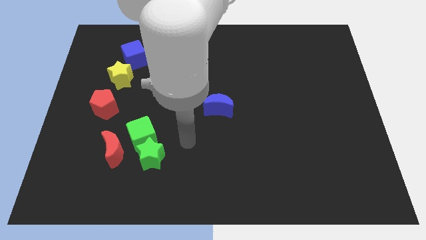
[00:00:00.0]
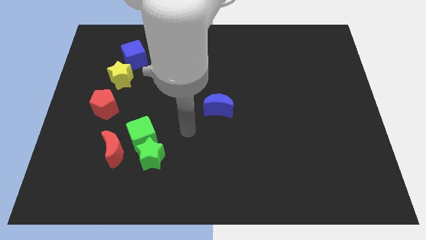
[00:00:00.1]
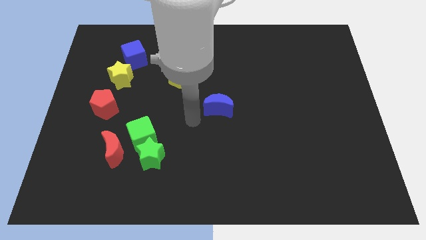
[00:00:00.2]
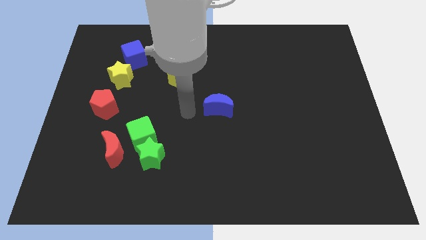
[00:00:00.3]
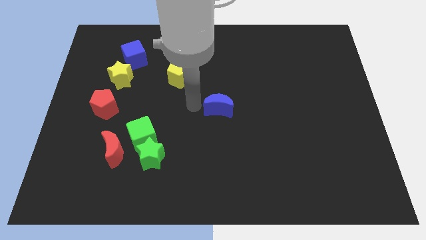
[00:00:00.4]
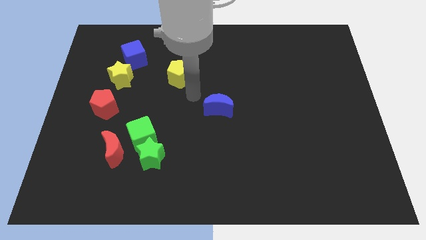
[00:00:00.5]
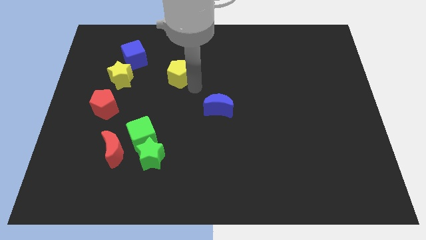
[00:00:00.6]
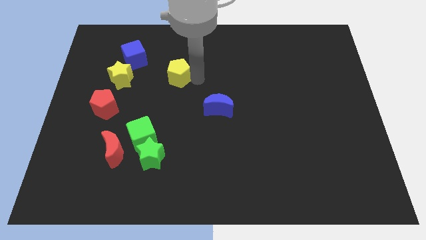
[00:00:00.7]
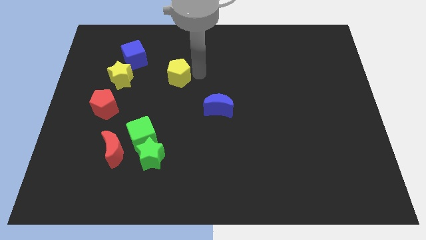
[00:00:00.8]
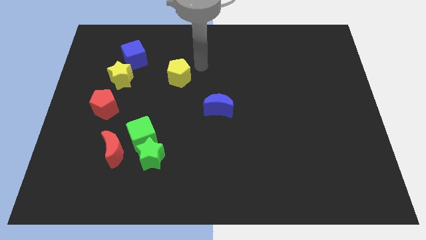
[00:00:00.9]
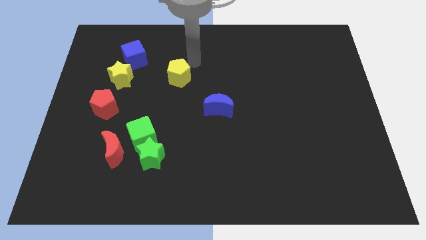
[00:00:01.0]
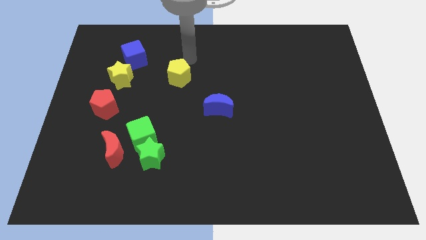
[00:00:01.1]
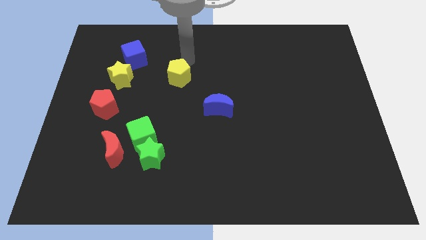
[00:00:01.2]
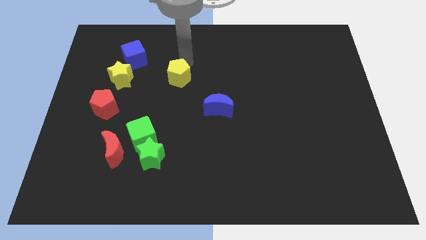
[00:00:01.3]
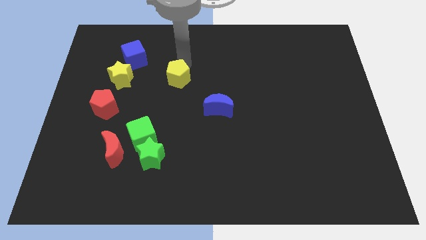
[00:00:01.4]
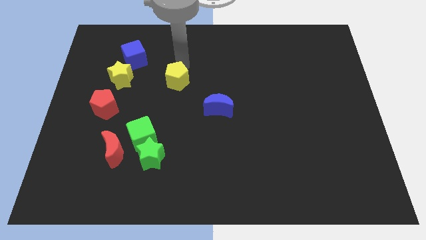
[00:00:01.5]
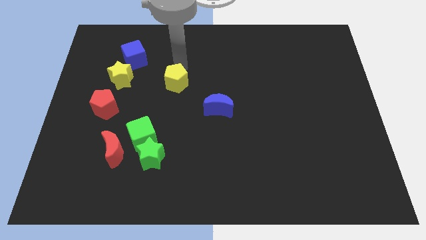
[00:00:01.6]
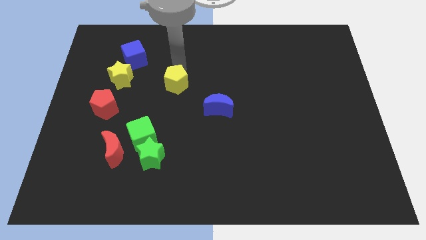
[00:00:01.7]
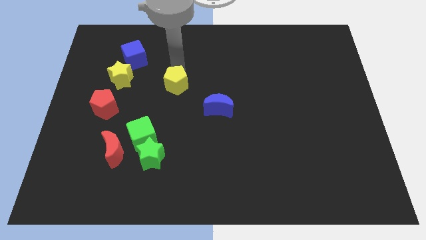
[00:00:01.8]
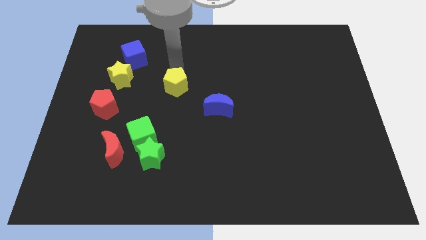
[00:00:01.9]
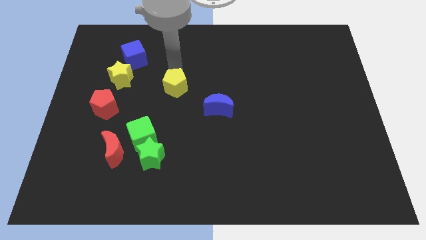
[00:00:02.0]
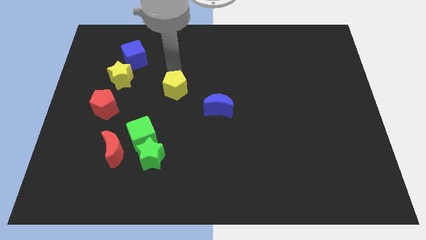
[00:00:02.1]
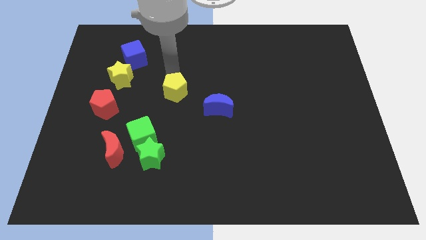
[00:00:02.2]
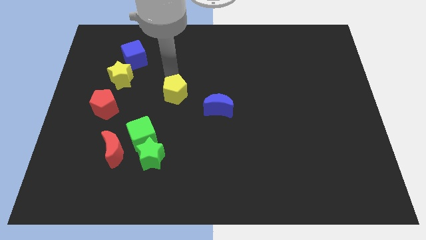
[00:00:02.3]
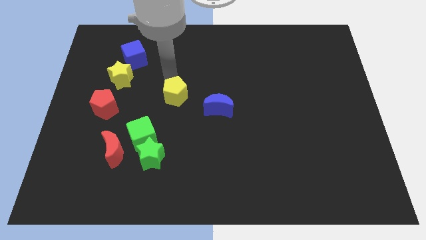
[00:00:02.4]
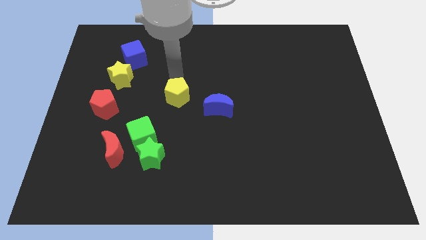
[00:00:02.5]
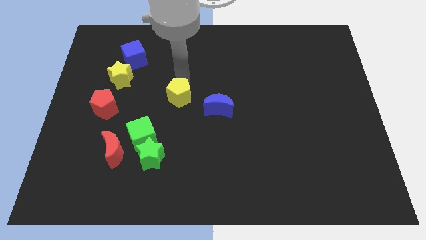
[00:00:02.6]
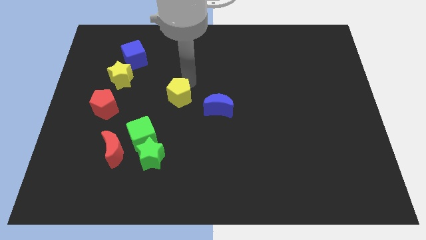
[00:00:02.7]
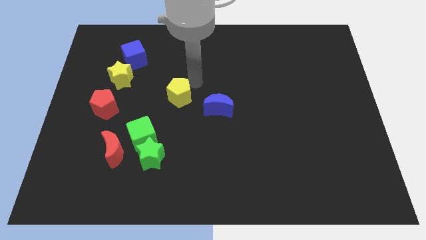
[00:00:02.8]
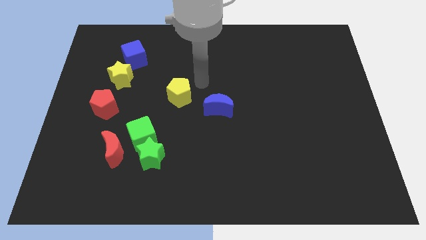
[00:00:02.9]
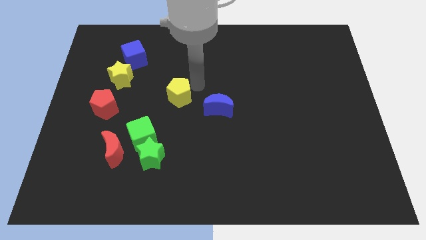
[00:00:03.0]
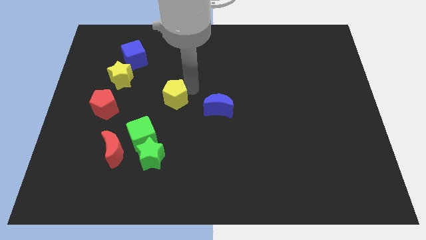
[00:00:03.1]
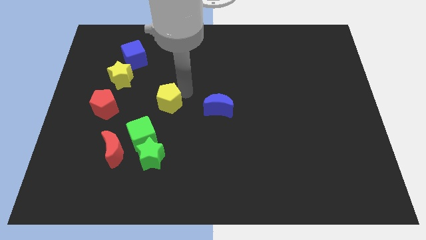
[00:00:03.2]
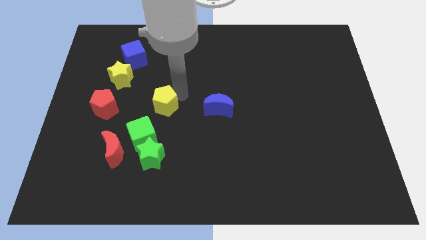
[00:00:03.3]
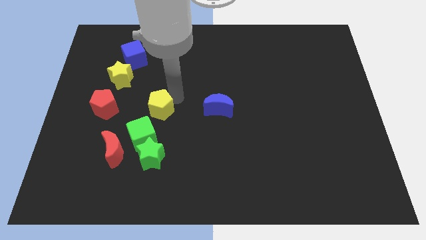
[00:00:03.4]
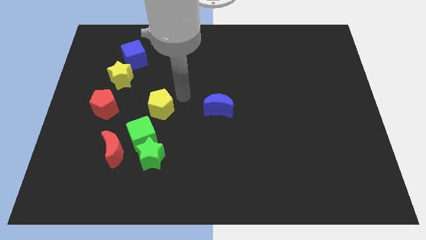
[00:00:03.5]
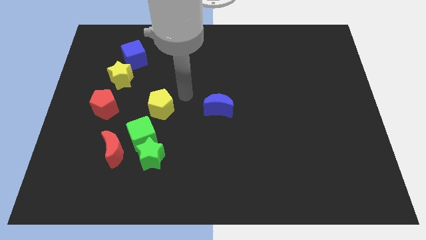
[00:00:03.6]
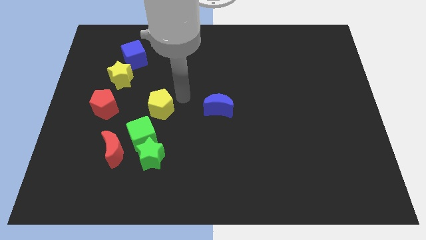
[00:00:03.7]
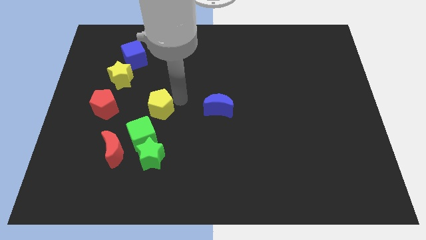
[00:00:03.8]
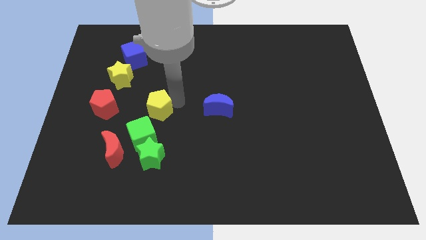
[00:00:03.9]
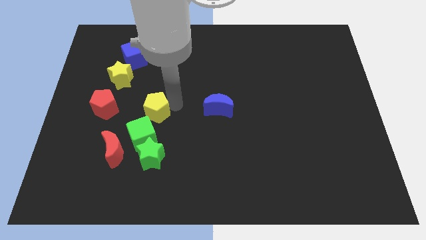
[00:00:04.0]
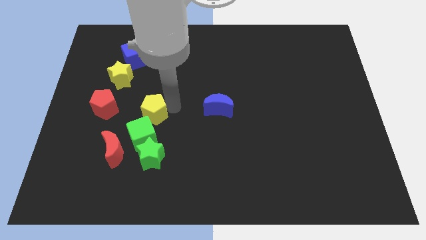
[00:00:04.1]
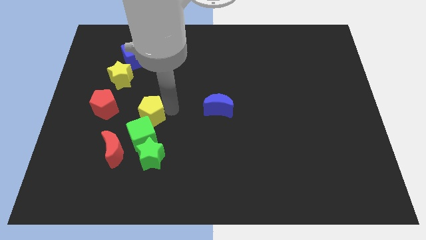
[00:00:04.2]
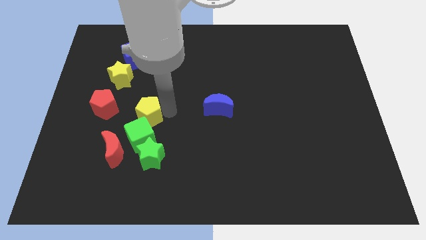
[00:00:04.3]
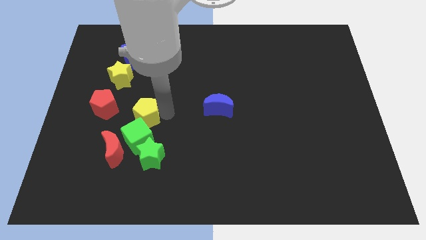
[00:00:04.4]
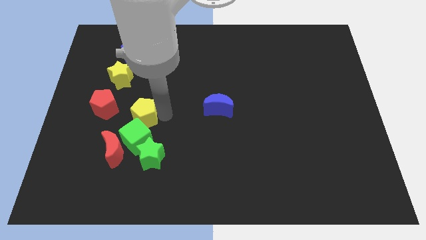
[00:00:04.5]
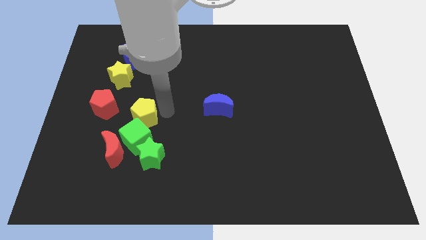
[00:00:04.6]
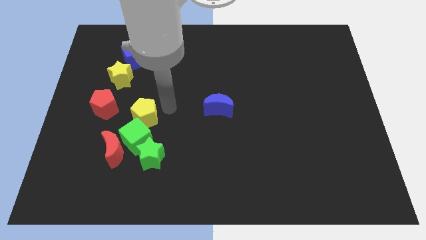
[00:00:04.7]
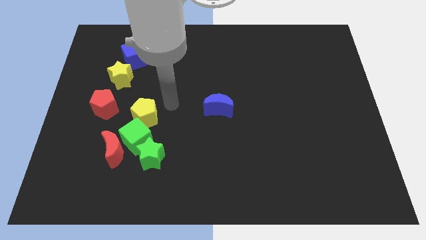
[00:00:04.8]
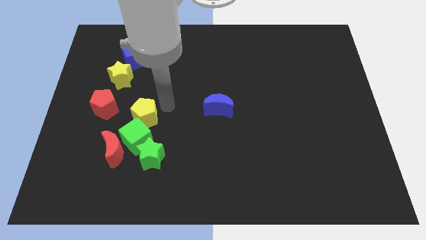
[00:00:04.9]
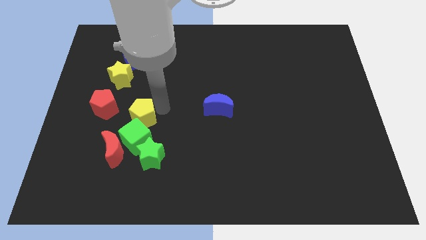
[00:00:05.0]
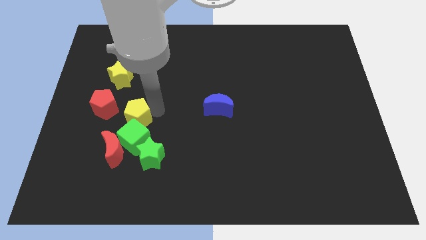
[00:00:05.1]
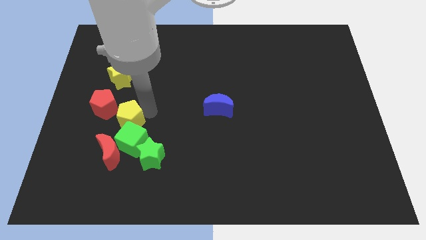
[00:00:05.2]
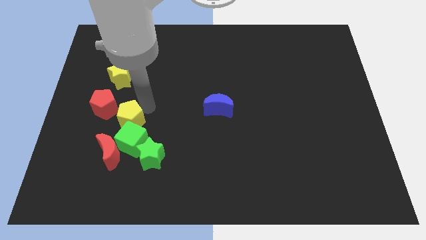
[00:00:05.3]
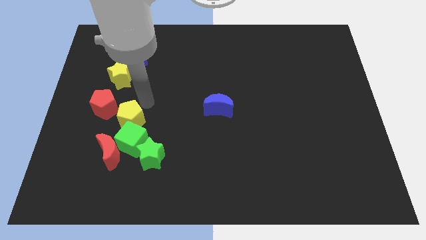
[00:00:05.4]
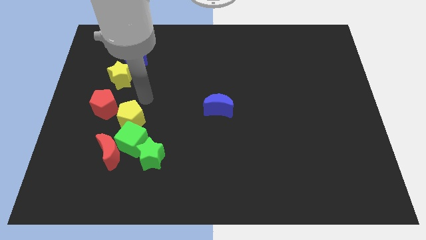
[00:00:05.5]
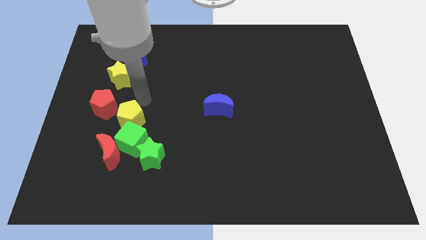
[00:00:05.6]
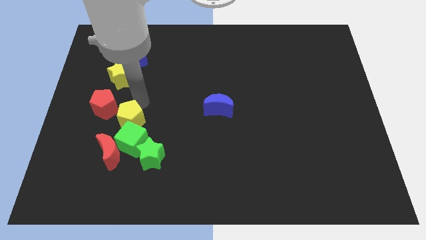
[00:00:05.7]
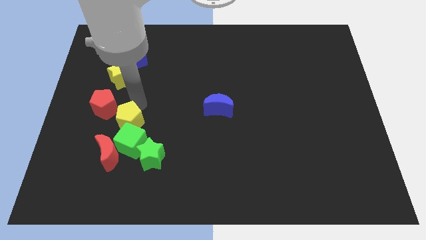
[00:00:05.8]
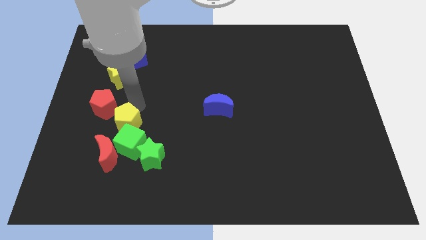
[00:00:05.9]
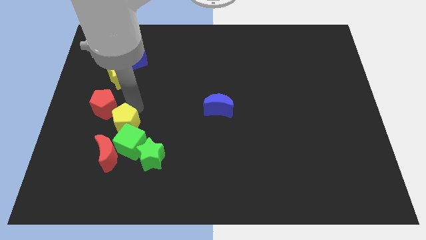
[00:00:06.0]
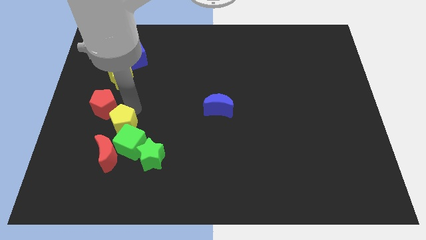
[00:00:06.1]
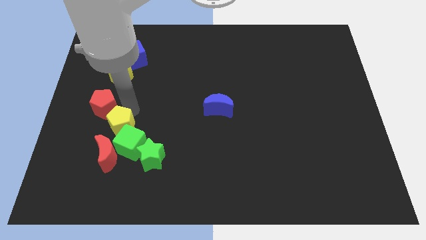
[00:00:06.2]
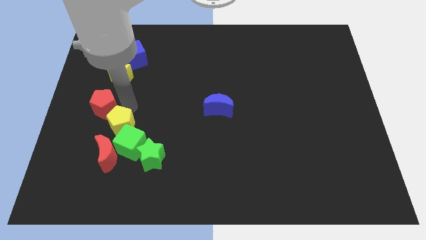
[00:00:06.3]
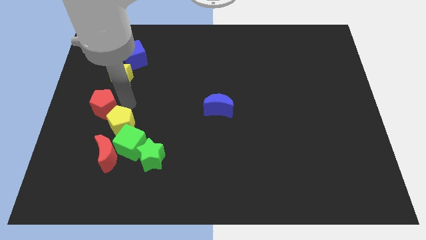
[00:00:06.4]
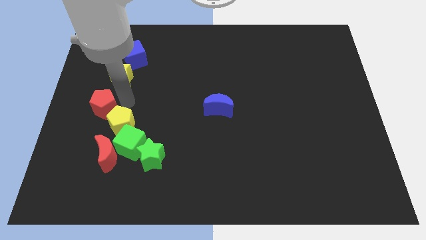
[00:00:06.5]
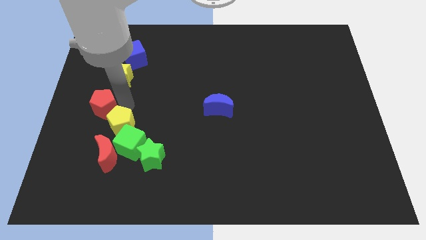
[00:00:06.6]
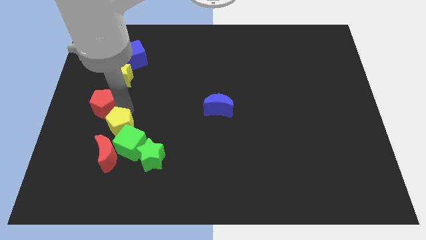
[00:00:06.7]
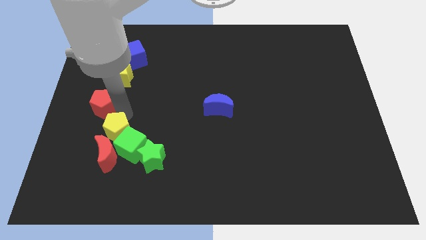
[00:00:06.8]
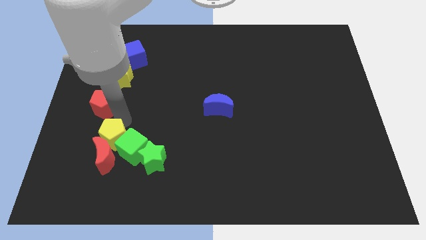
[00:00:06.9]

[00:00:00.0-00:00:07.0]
push the yellow pentagon to the red moon
